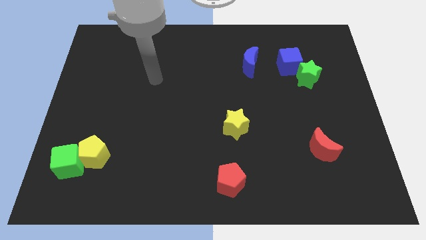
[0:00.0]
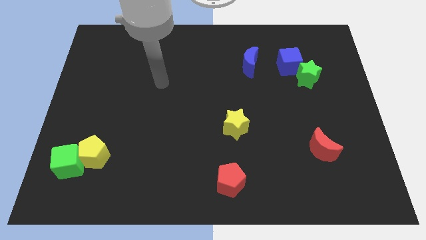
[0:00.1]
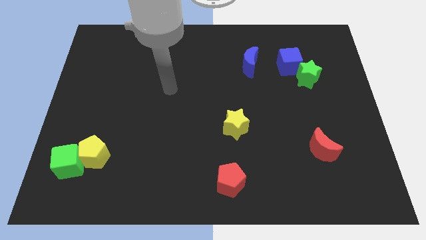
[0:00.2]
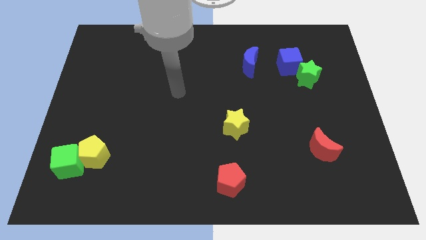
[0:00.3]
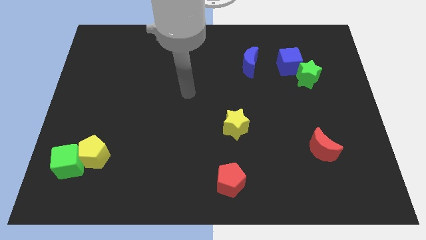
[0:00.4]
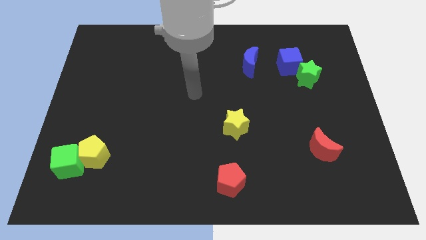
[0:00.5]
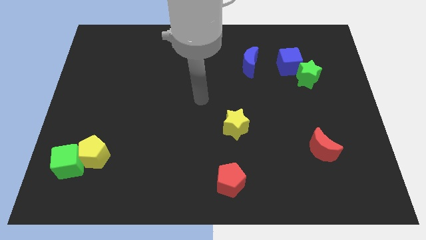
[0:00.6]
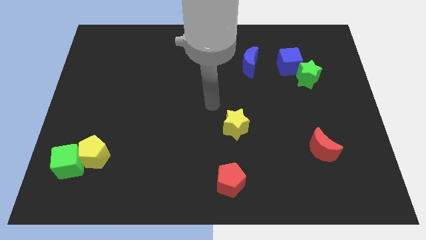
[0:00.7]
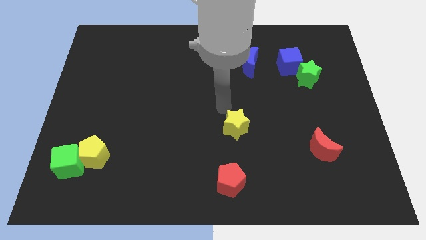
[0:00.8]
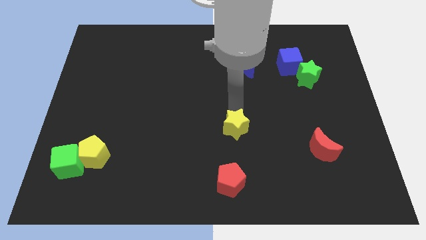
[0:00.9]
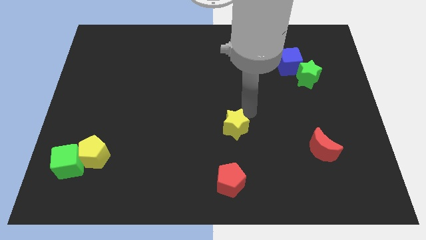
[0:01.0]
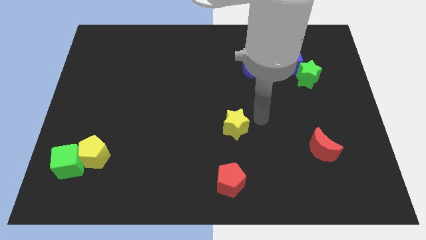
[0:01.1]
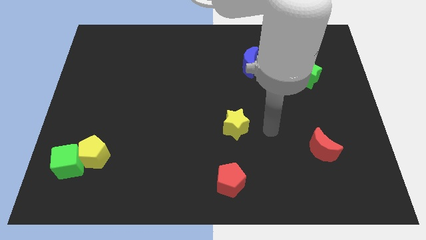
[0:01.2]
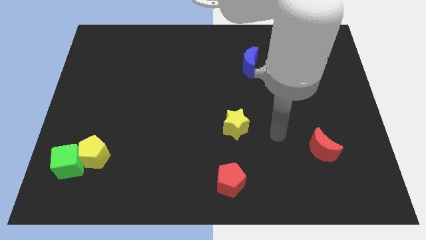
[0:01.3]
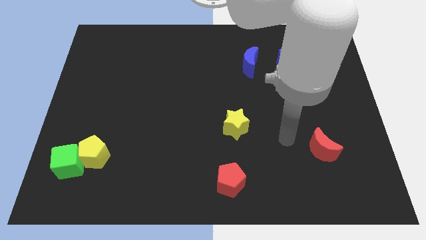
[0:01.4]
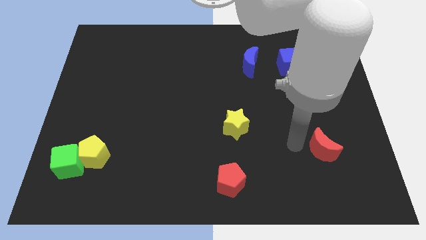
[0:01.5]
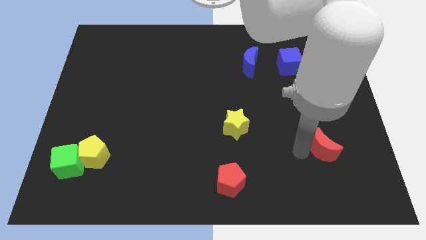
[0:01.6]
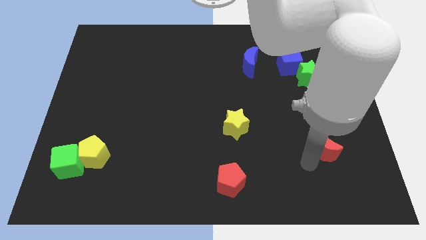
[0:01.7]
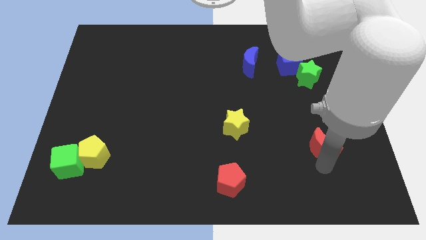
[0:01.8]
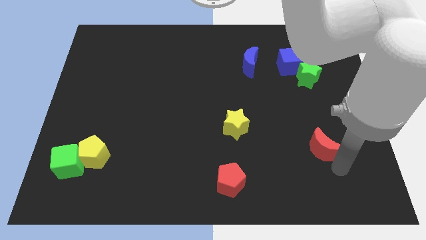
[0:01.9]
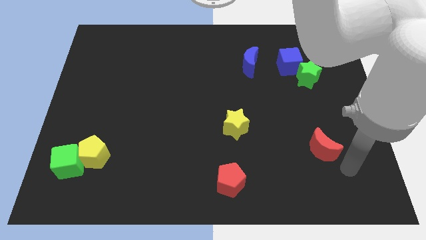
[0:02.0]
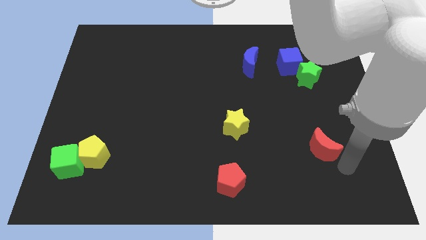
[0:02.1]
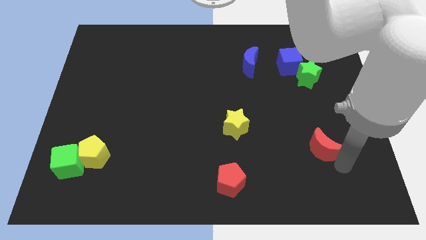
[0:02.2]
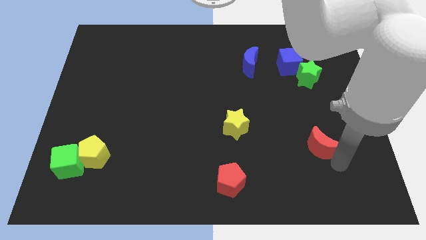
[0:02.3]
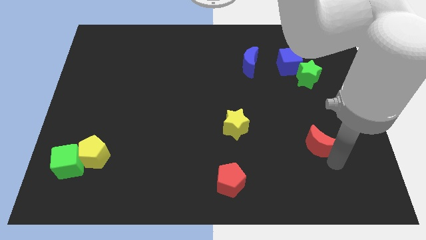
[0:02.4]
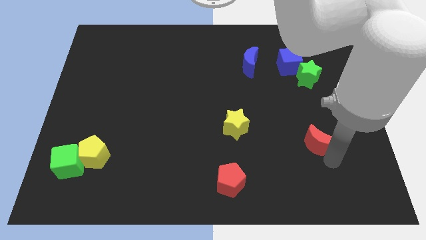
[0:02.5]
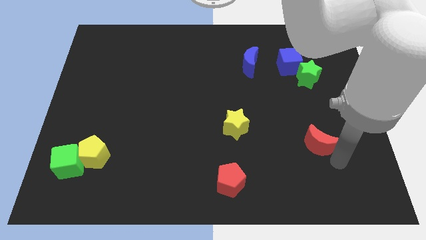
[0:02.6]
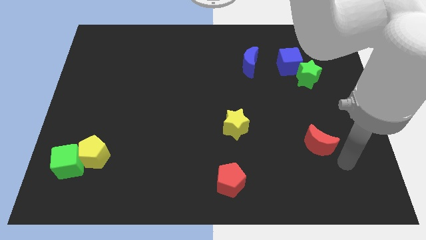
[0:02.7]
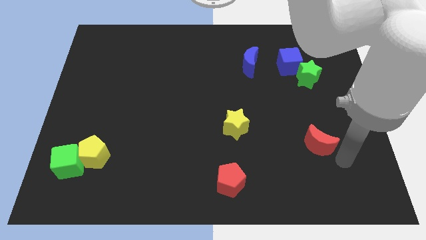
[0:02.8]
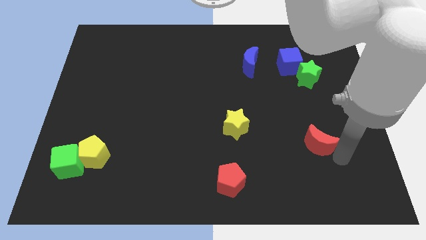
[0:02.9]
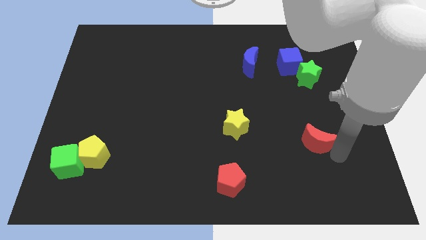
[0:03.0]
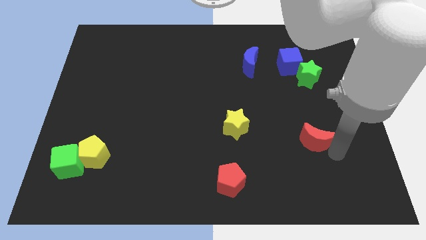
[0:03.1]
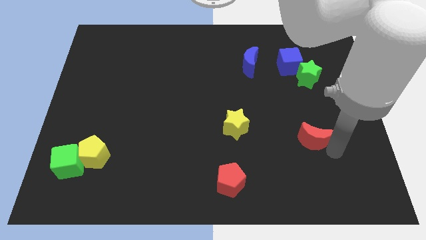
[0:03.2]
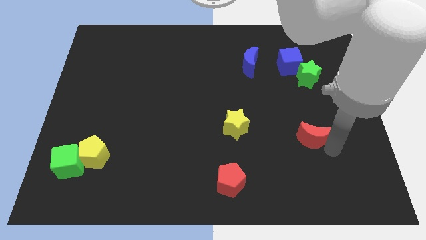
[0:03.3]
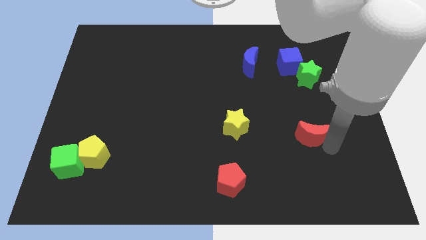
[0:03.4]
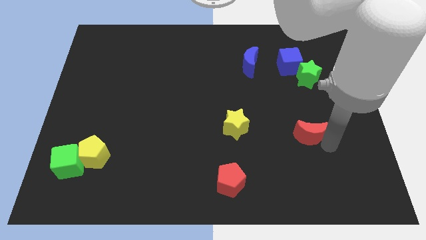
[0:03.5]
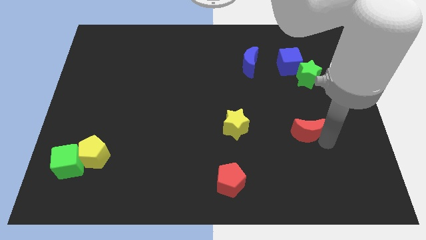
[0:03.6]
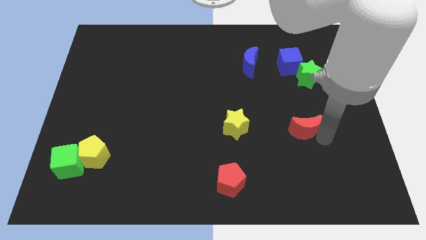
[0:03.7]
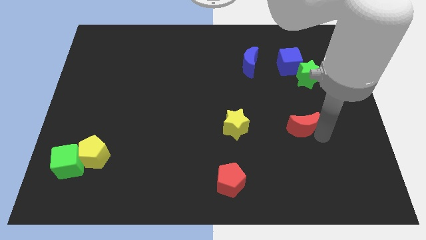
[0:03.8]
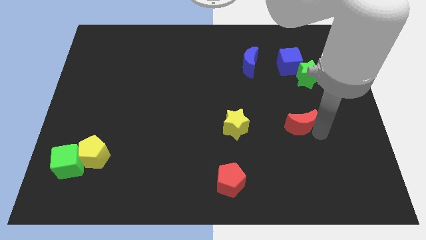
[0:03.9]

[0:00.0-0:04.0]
slightly slide the red moon diagonally upwards and to the left

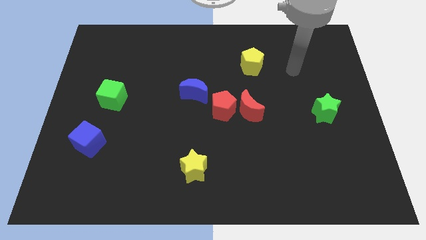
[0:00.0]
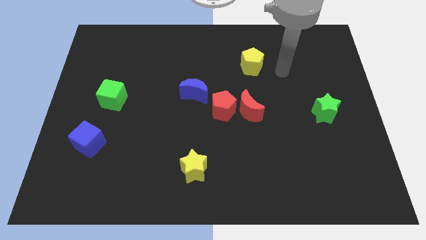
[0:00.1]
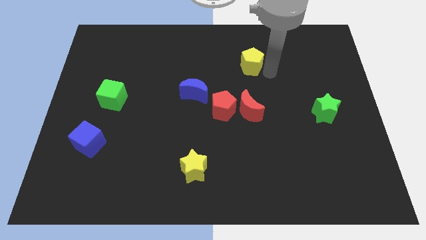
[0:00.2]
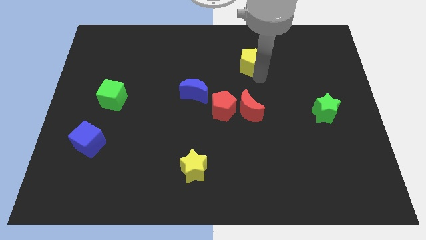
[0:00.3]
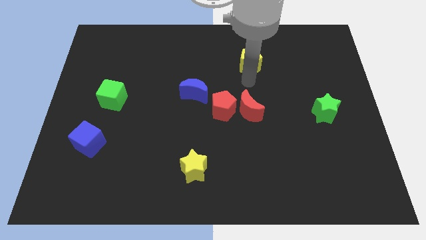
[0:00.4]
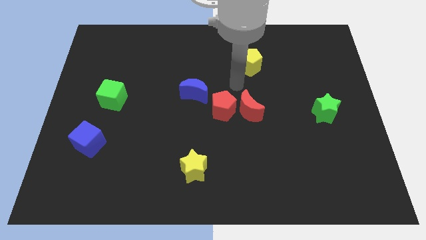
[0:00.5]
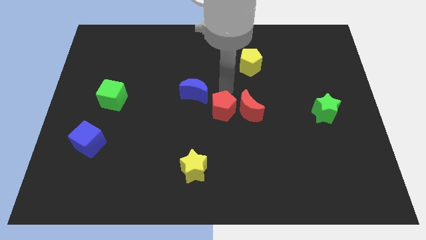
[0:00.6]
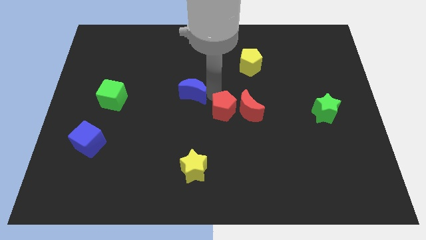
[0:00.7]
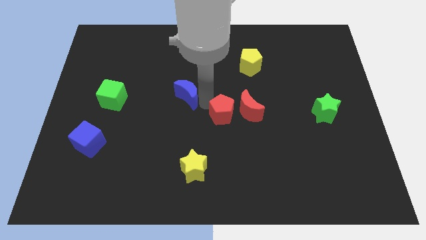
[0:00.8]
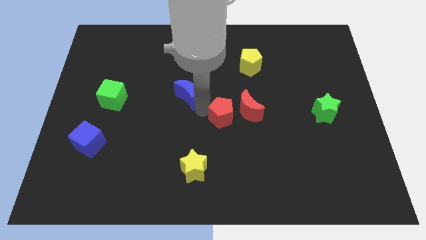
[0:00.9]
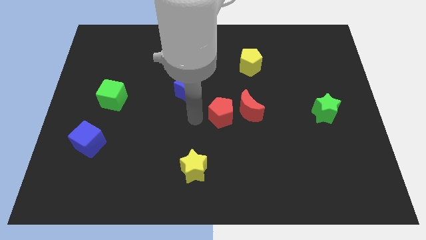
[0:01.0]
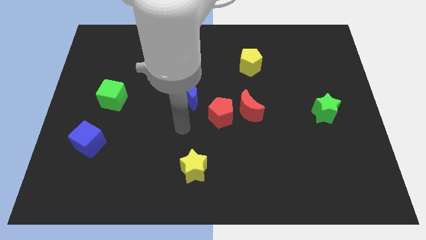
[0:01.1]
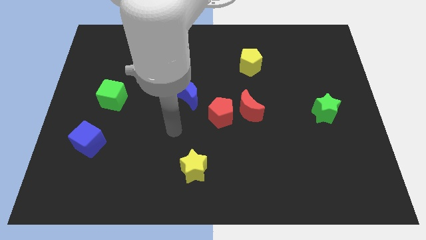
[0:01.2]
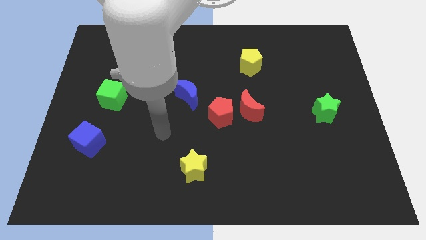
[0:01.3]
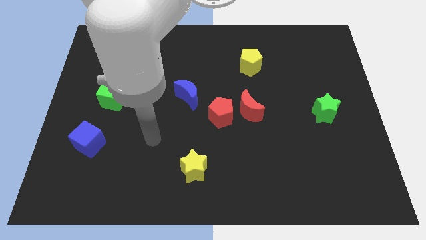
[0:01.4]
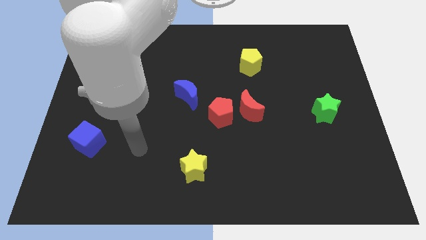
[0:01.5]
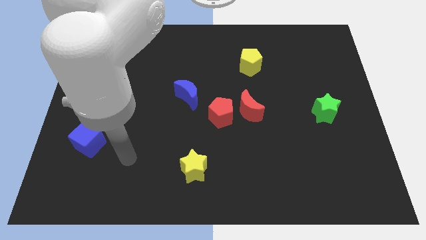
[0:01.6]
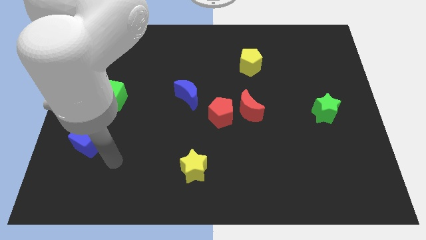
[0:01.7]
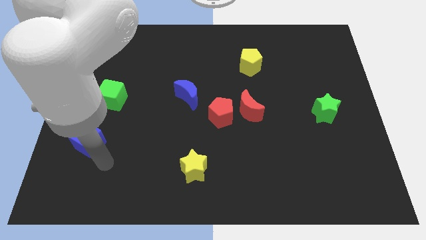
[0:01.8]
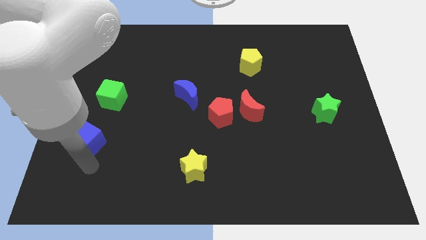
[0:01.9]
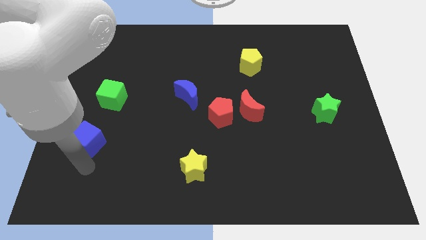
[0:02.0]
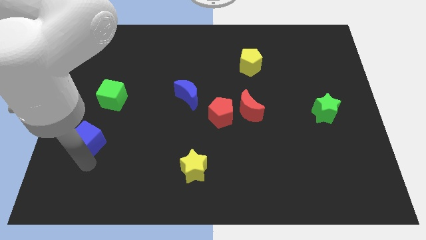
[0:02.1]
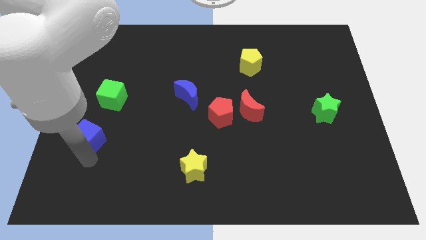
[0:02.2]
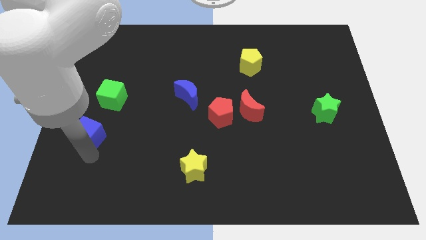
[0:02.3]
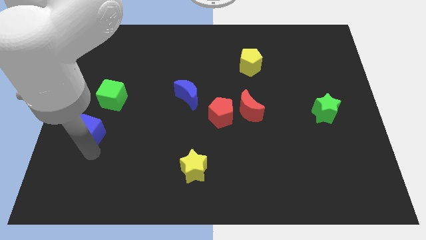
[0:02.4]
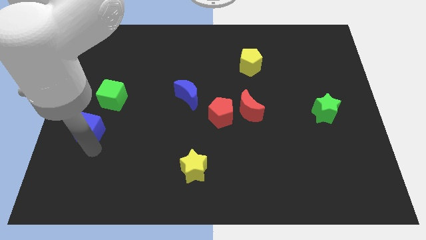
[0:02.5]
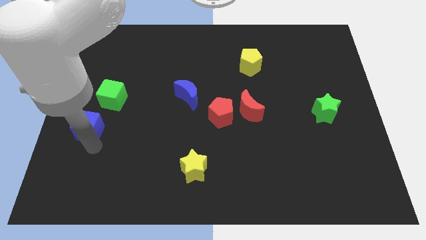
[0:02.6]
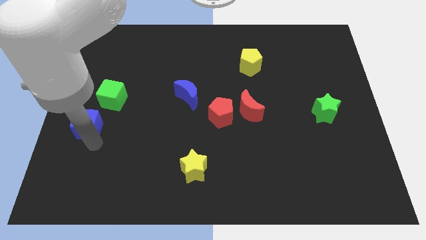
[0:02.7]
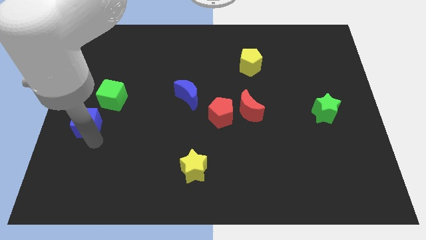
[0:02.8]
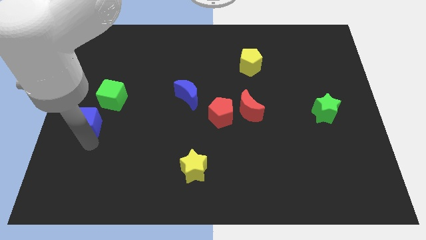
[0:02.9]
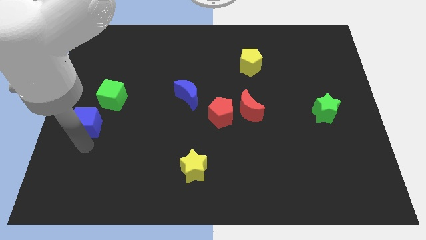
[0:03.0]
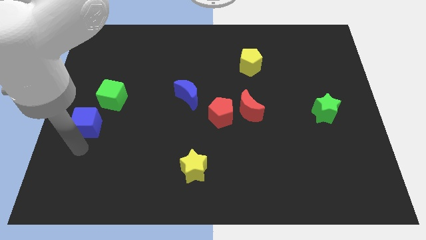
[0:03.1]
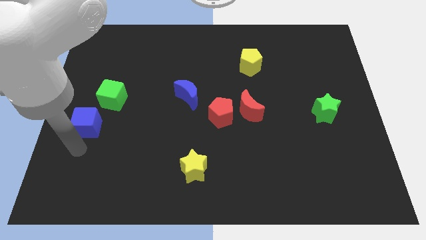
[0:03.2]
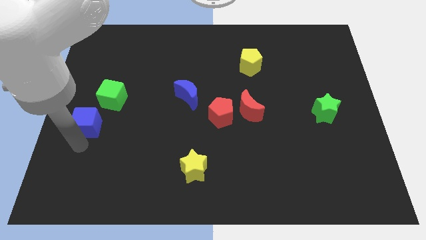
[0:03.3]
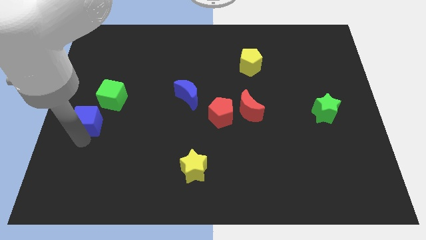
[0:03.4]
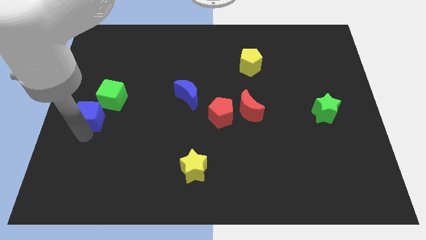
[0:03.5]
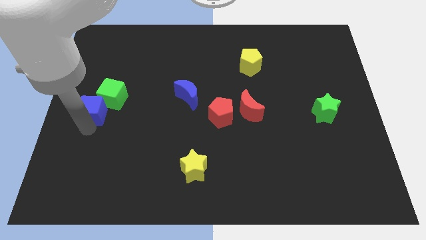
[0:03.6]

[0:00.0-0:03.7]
slightly move the blue cube upwards
